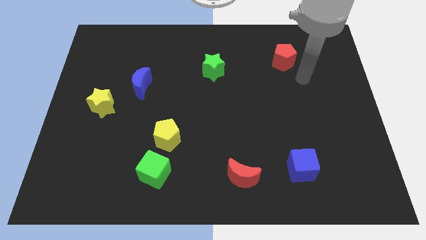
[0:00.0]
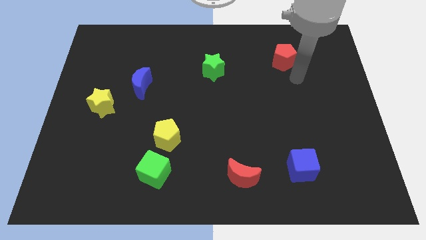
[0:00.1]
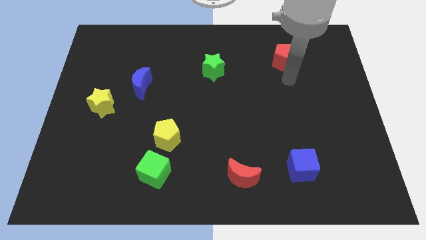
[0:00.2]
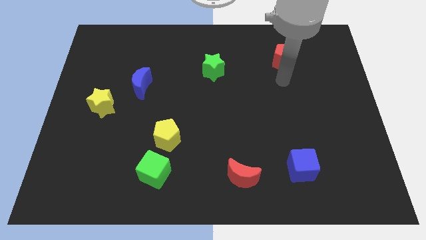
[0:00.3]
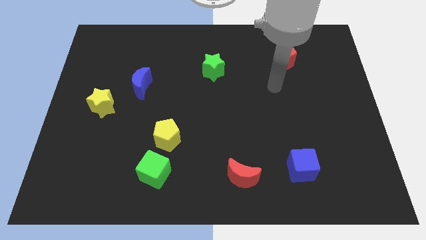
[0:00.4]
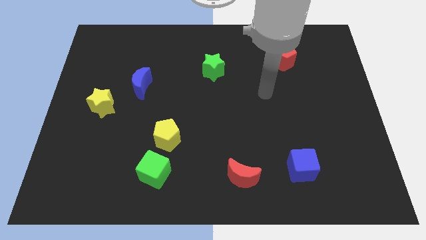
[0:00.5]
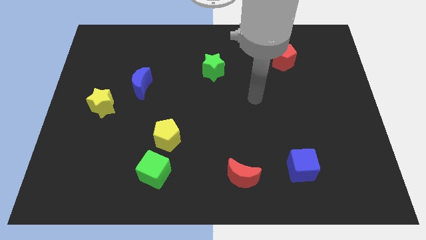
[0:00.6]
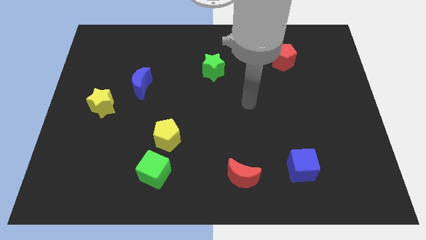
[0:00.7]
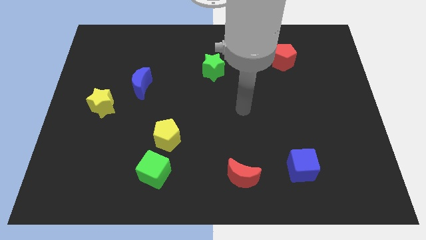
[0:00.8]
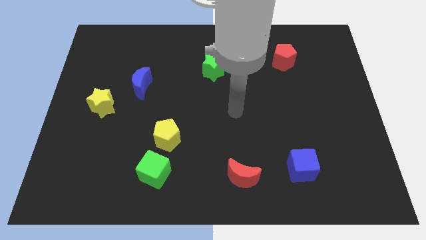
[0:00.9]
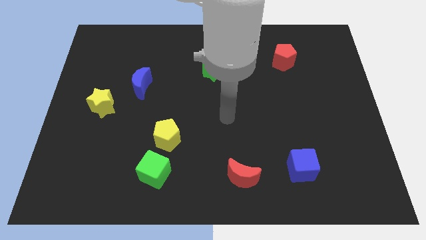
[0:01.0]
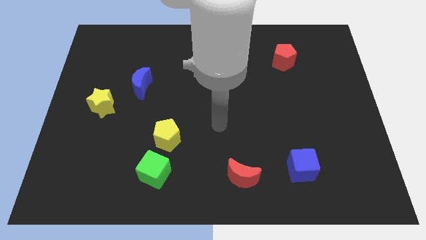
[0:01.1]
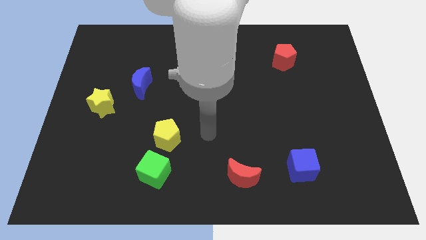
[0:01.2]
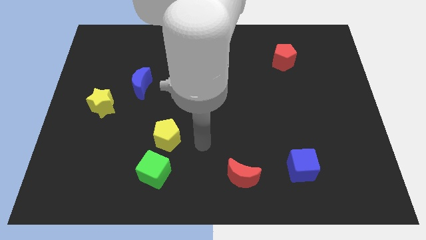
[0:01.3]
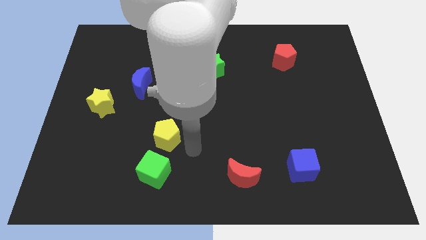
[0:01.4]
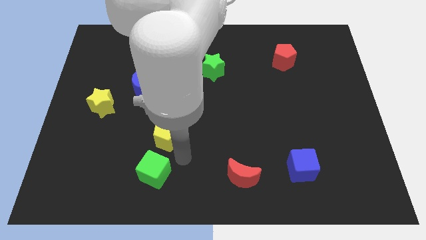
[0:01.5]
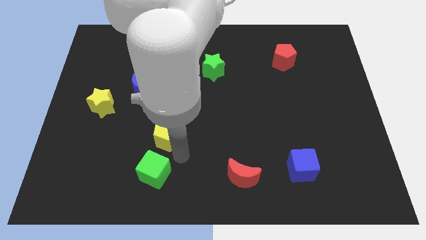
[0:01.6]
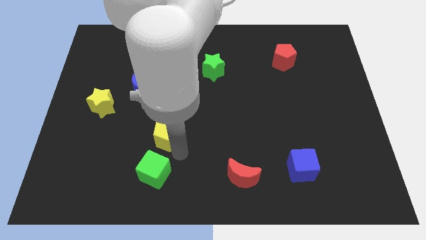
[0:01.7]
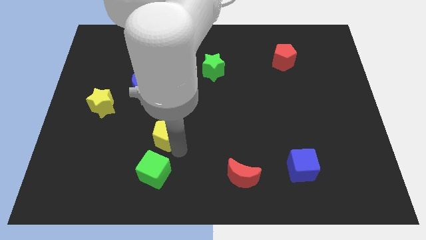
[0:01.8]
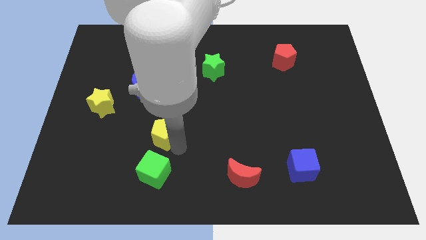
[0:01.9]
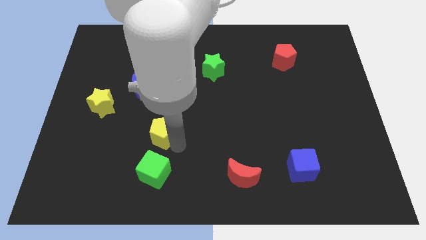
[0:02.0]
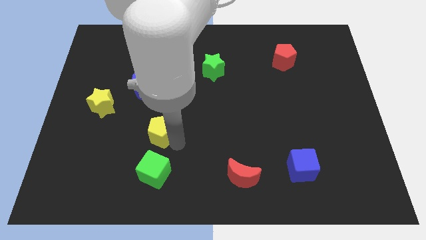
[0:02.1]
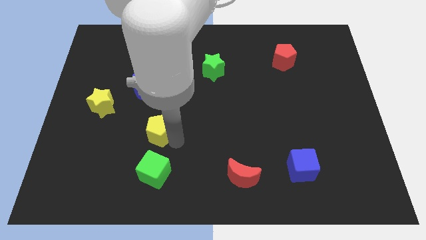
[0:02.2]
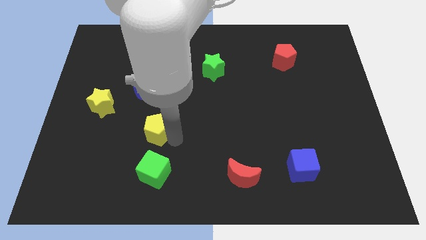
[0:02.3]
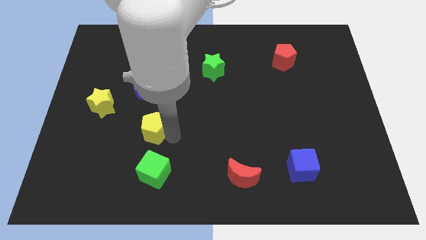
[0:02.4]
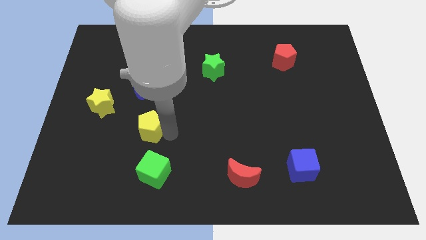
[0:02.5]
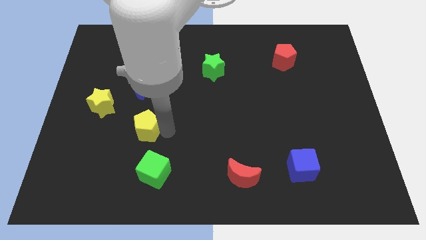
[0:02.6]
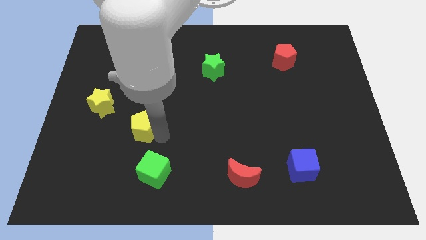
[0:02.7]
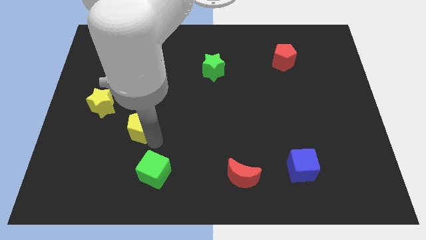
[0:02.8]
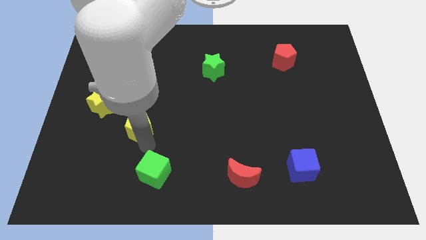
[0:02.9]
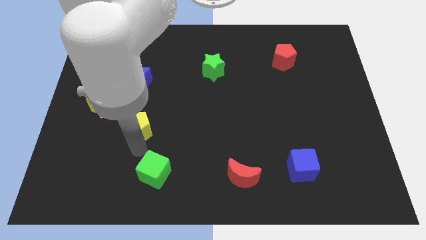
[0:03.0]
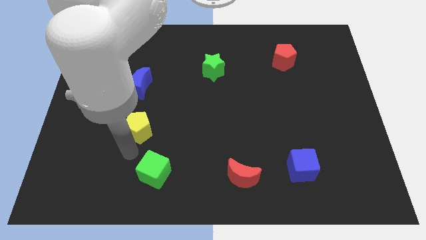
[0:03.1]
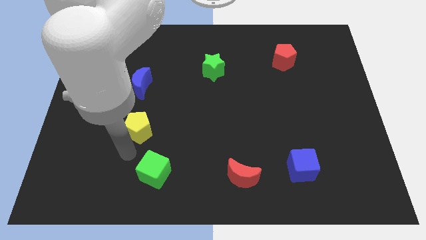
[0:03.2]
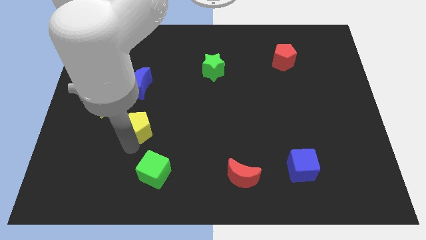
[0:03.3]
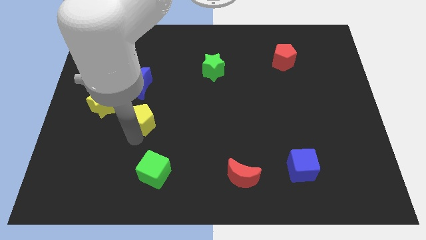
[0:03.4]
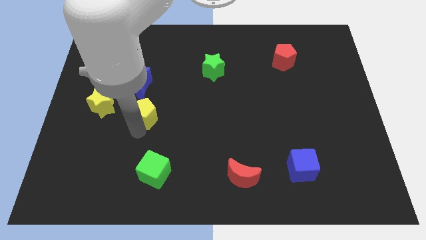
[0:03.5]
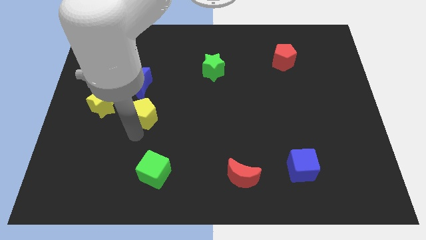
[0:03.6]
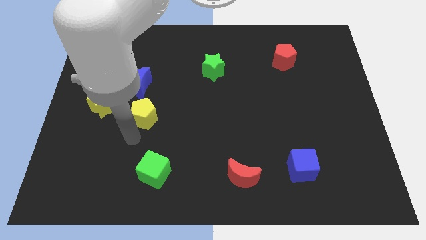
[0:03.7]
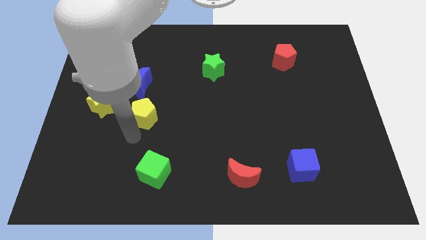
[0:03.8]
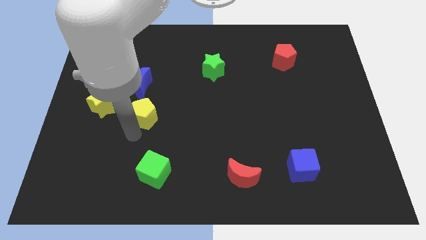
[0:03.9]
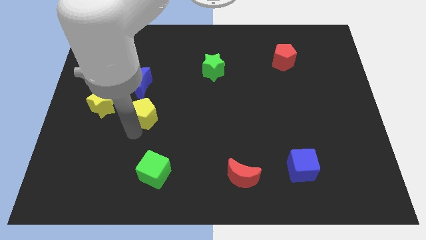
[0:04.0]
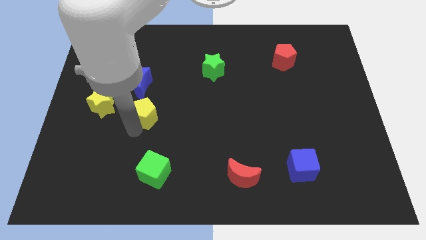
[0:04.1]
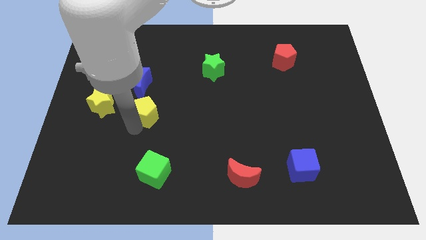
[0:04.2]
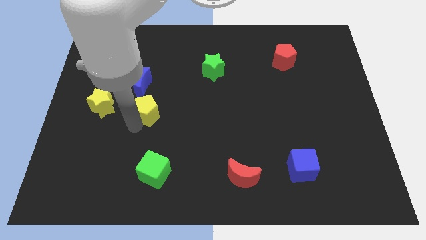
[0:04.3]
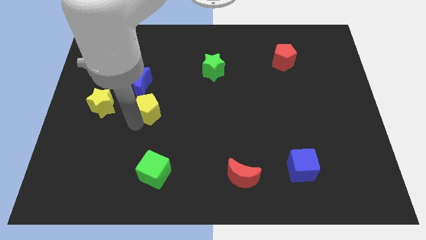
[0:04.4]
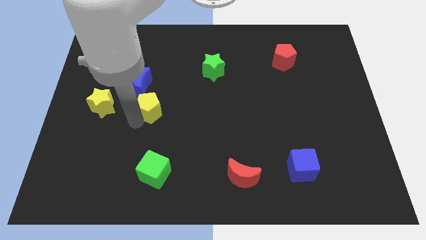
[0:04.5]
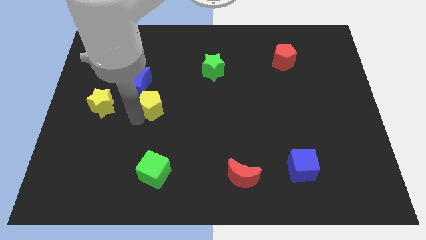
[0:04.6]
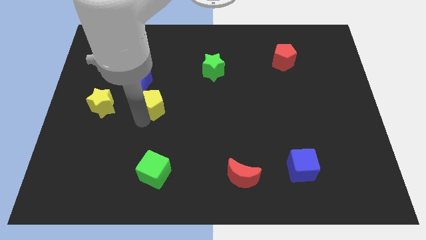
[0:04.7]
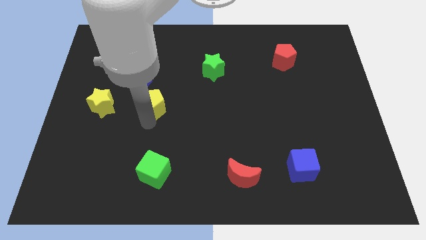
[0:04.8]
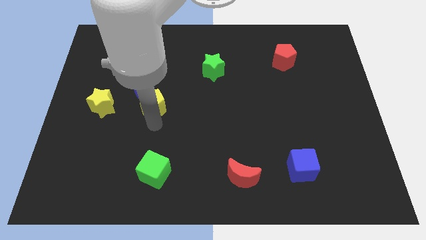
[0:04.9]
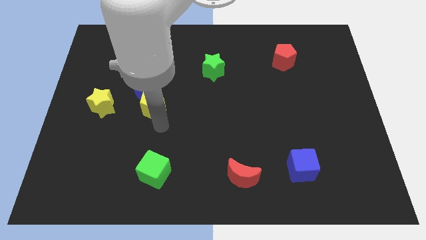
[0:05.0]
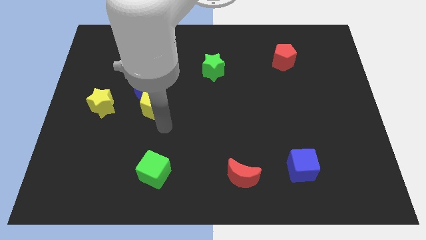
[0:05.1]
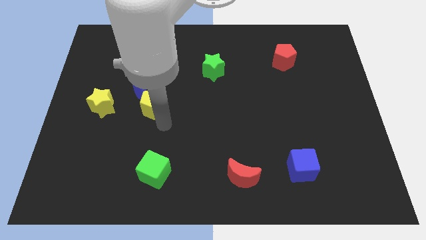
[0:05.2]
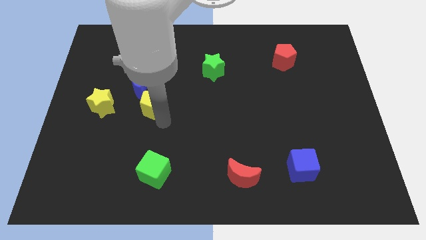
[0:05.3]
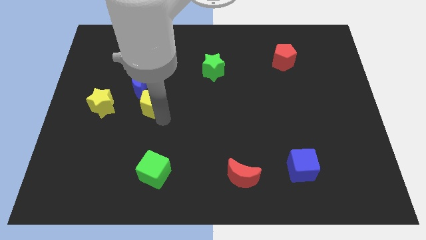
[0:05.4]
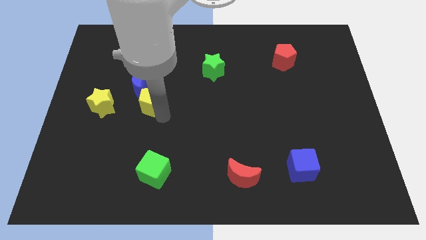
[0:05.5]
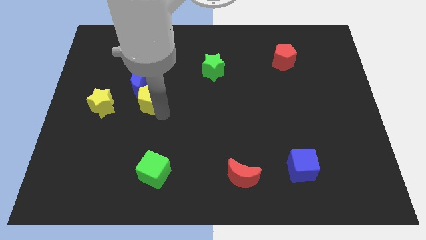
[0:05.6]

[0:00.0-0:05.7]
push the yellow pentagon to the blue moon

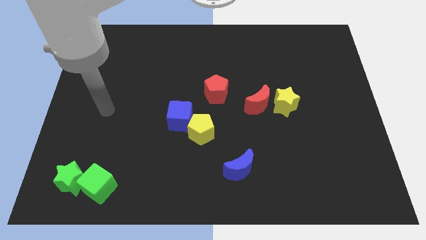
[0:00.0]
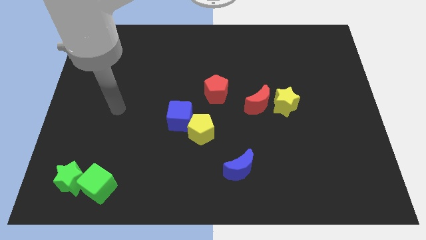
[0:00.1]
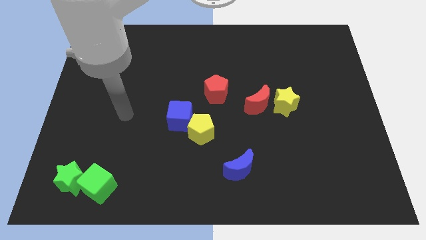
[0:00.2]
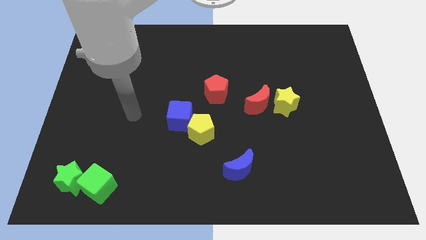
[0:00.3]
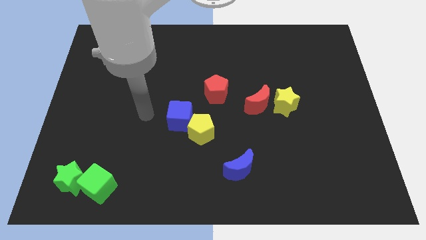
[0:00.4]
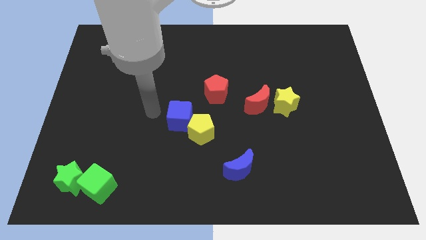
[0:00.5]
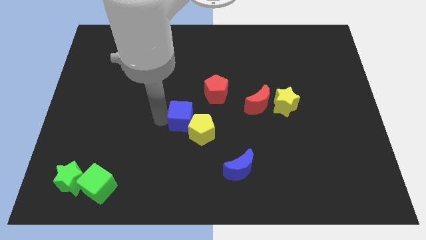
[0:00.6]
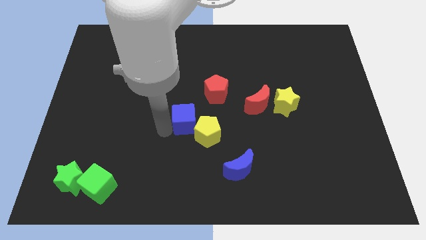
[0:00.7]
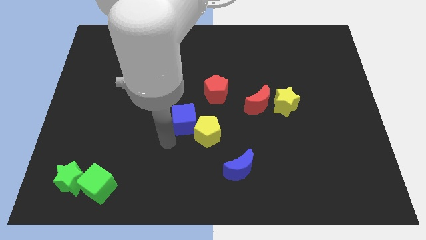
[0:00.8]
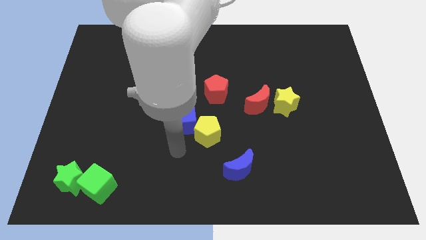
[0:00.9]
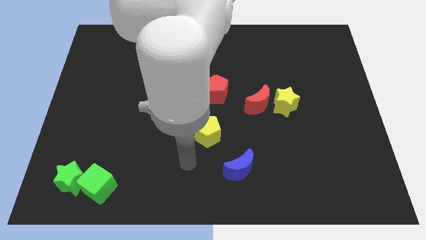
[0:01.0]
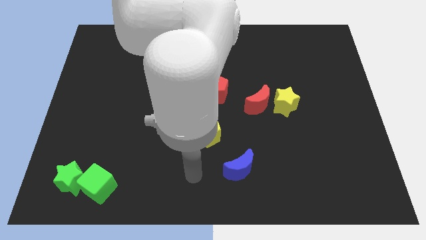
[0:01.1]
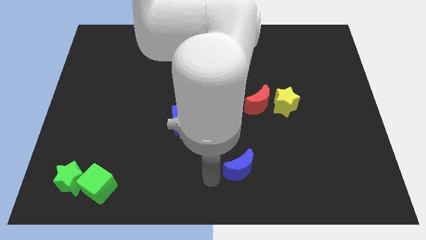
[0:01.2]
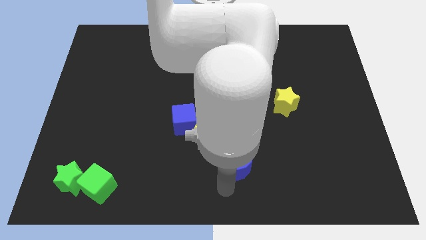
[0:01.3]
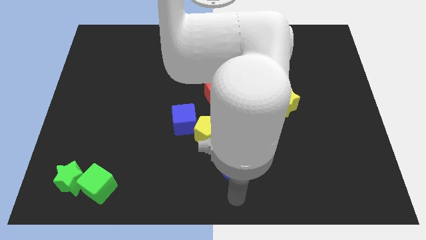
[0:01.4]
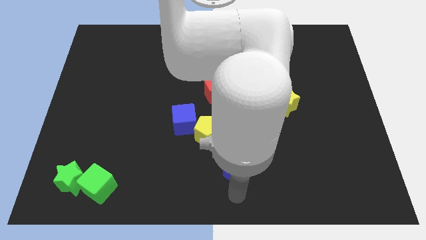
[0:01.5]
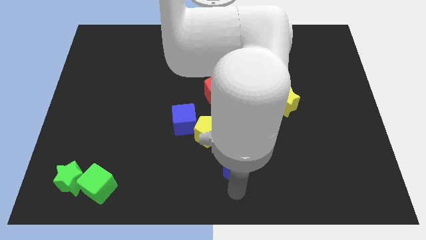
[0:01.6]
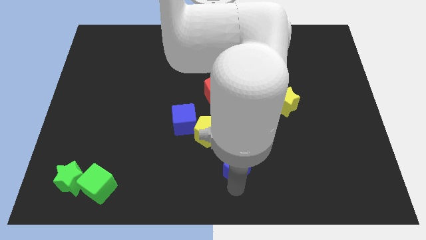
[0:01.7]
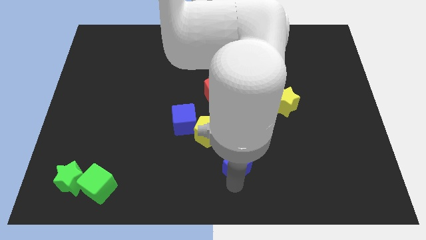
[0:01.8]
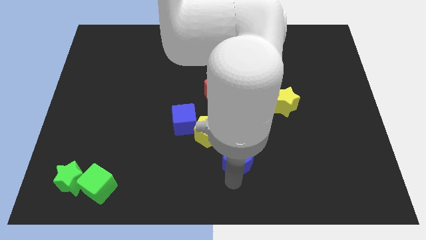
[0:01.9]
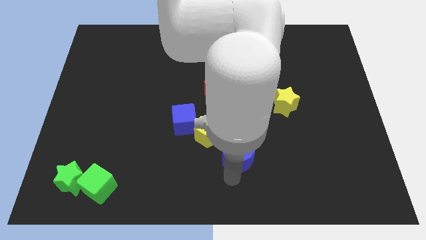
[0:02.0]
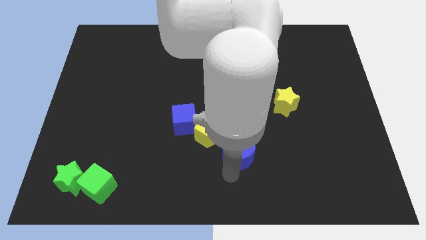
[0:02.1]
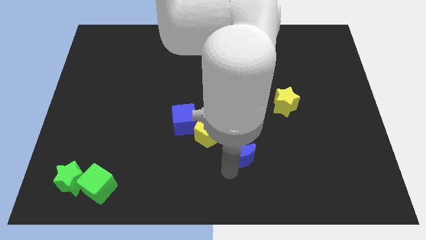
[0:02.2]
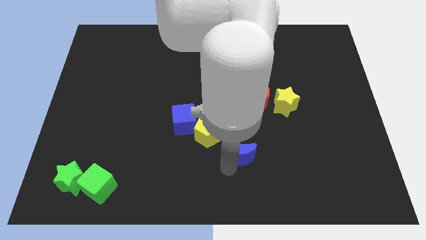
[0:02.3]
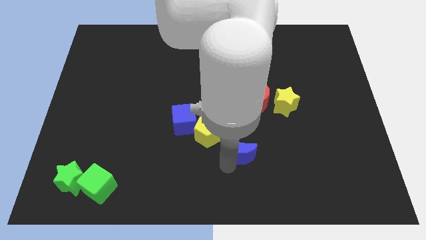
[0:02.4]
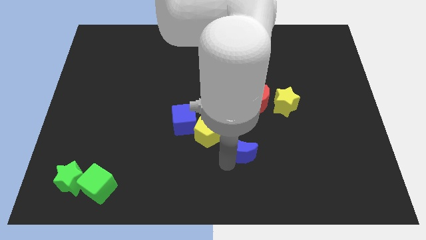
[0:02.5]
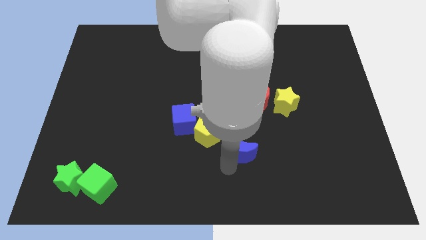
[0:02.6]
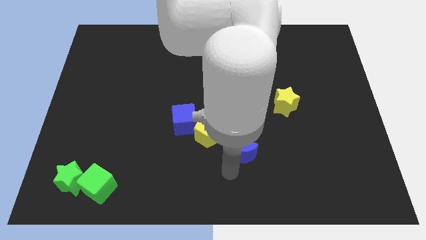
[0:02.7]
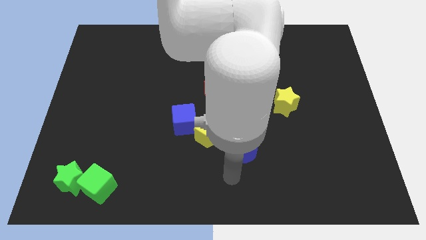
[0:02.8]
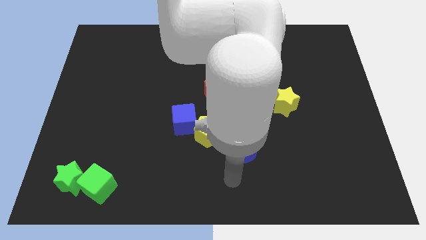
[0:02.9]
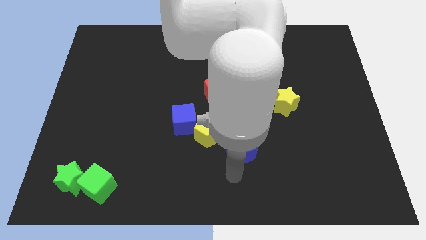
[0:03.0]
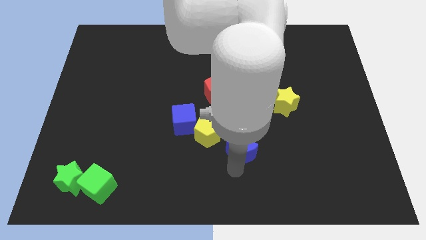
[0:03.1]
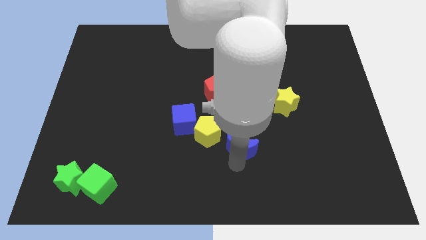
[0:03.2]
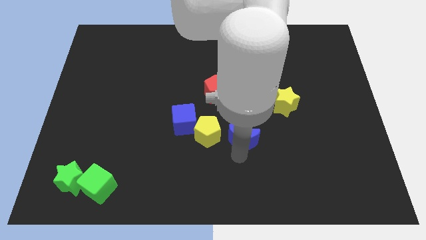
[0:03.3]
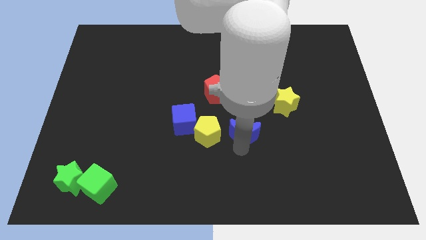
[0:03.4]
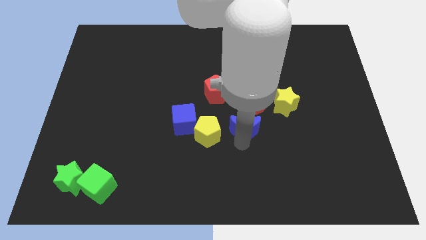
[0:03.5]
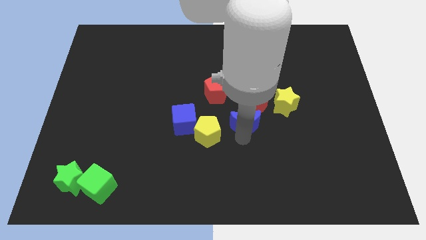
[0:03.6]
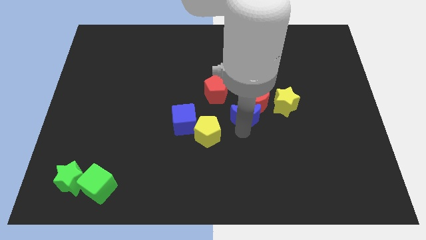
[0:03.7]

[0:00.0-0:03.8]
move the blue moon close to the red moon
